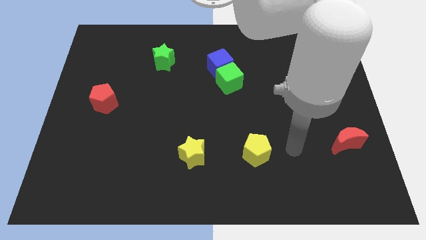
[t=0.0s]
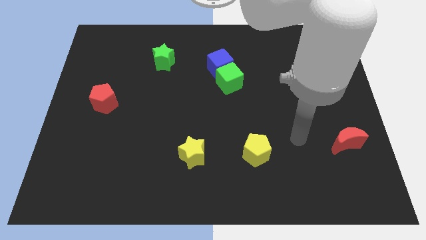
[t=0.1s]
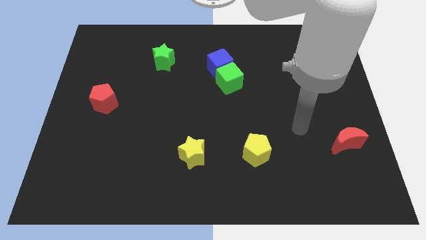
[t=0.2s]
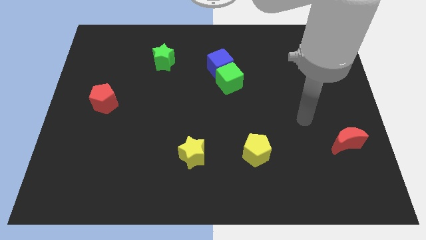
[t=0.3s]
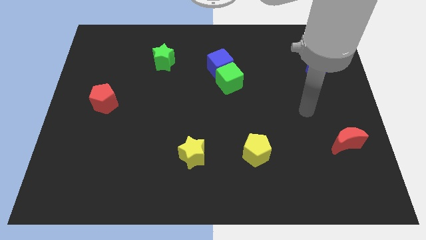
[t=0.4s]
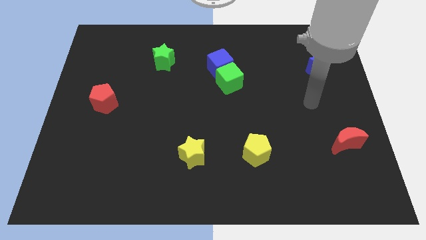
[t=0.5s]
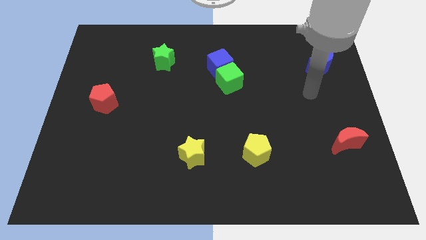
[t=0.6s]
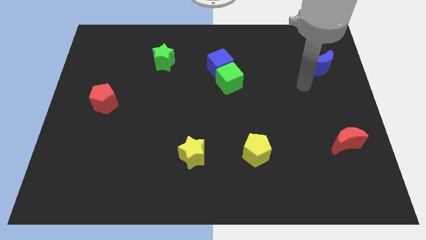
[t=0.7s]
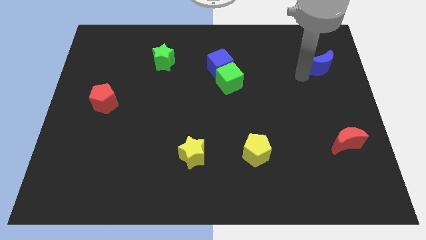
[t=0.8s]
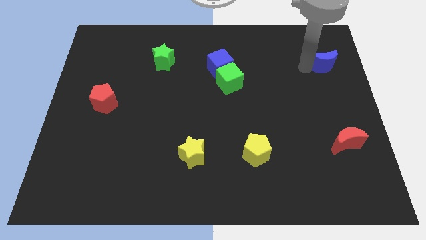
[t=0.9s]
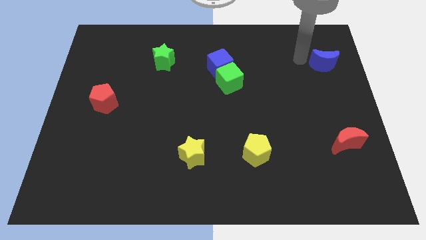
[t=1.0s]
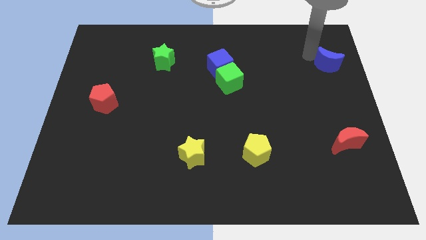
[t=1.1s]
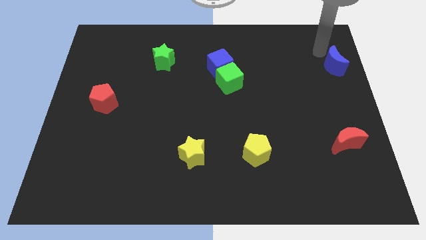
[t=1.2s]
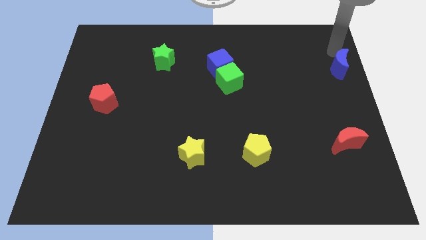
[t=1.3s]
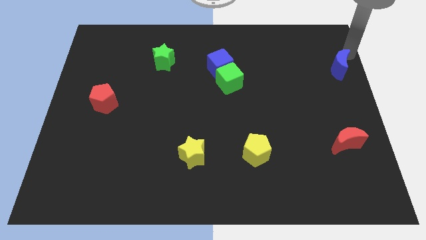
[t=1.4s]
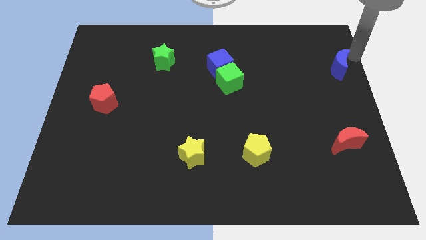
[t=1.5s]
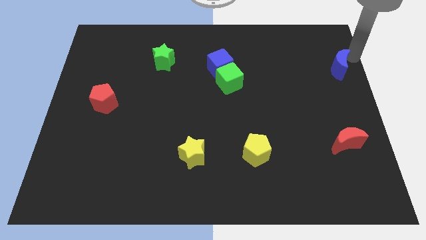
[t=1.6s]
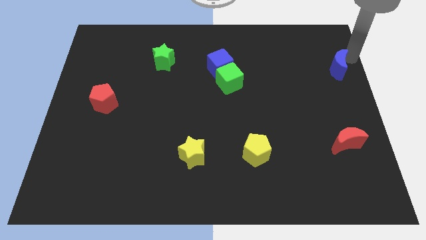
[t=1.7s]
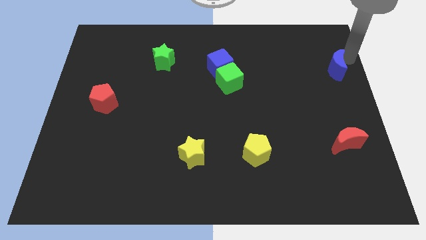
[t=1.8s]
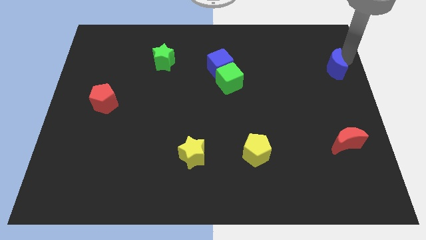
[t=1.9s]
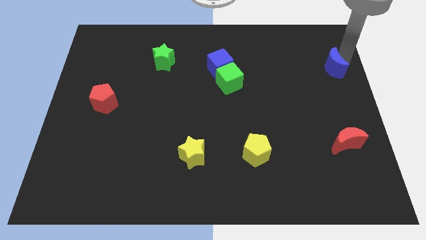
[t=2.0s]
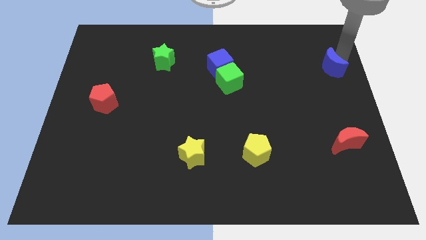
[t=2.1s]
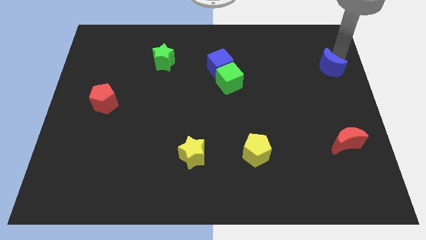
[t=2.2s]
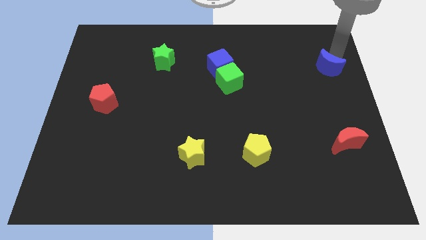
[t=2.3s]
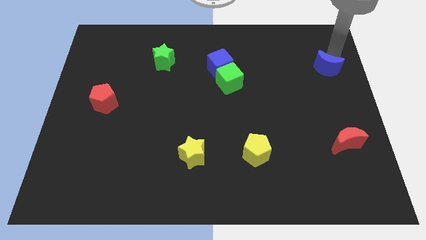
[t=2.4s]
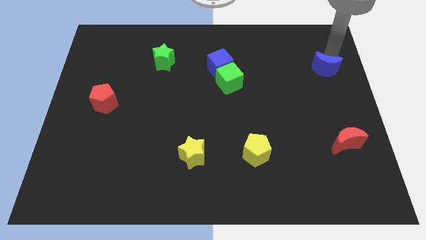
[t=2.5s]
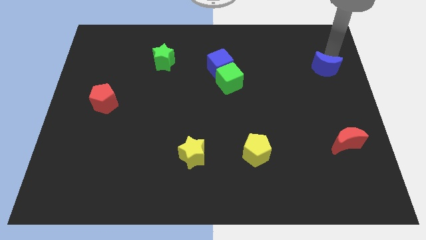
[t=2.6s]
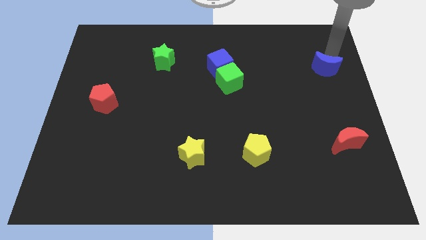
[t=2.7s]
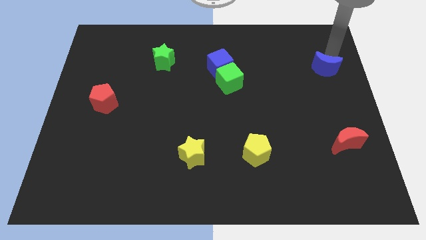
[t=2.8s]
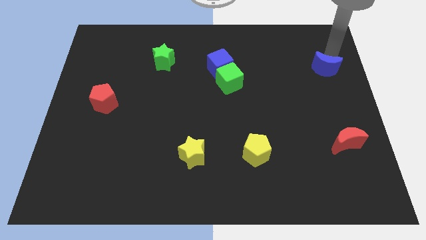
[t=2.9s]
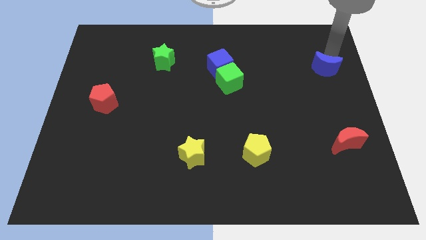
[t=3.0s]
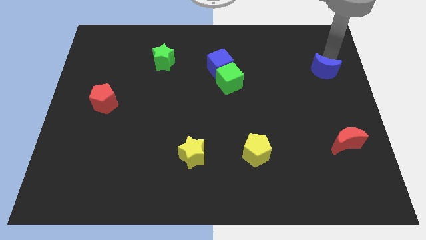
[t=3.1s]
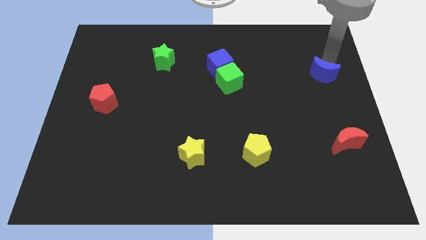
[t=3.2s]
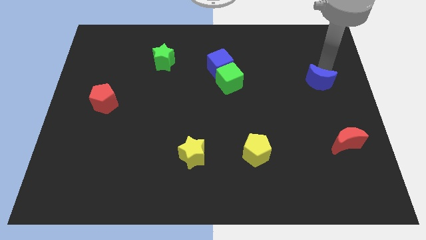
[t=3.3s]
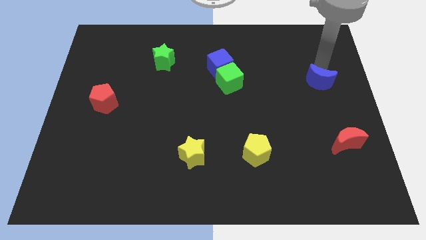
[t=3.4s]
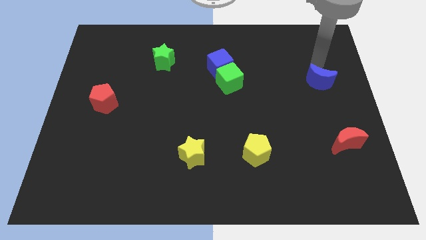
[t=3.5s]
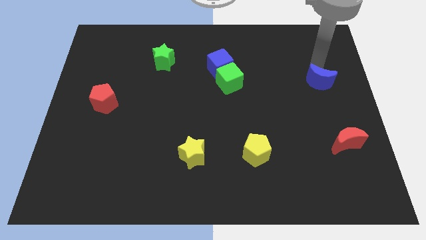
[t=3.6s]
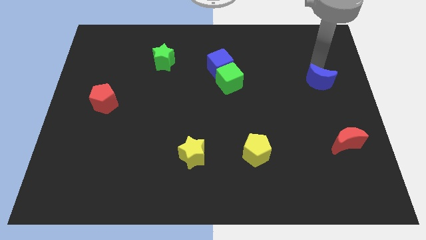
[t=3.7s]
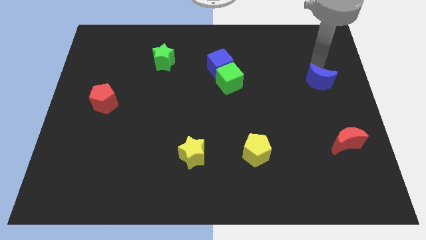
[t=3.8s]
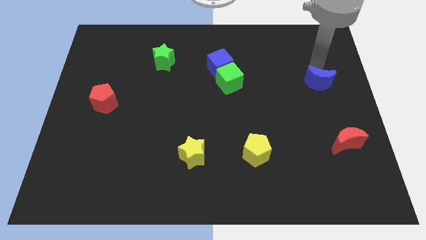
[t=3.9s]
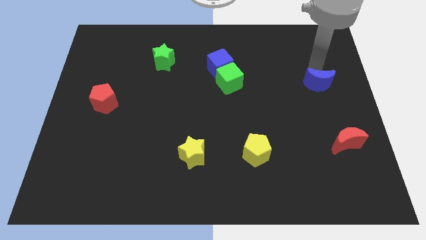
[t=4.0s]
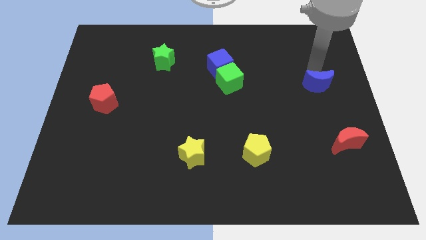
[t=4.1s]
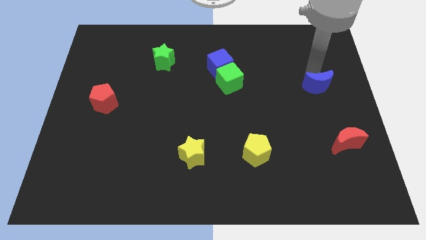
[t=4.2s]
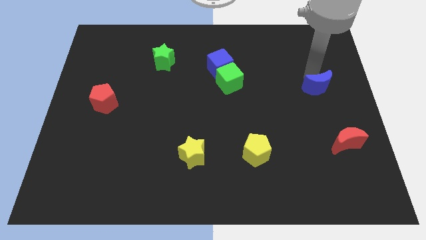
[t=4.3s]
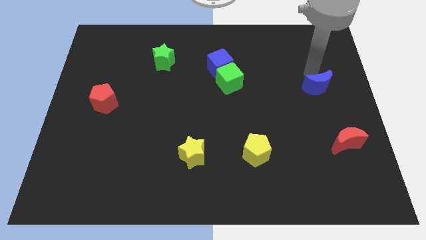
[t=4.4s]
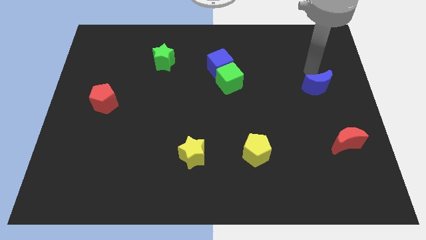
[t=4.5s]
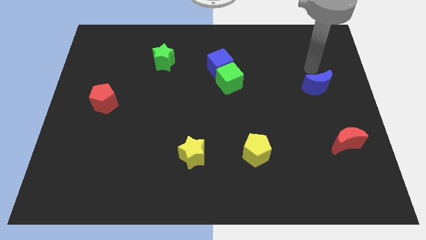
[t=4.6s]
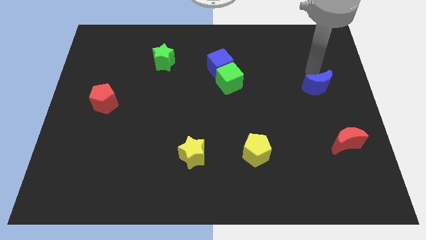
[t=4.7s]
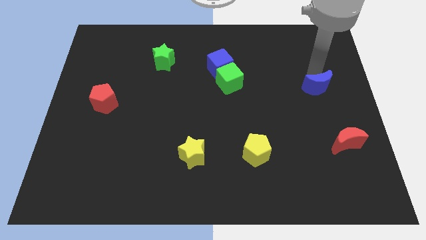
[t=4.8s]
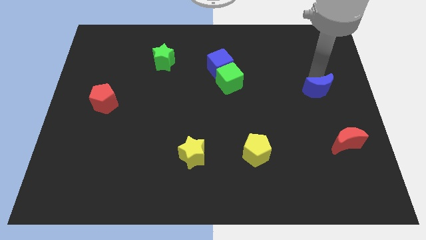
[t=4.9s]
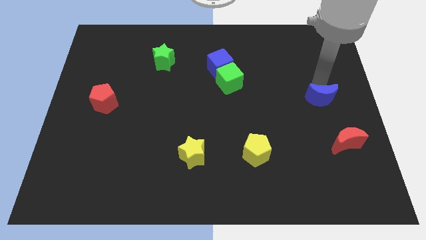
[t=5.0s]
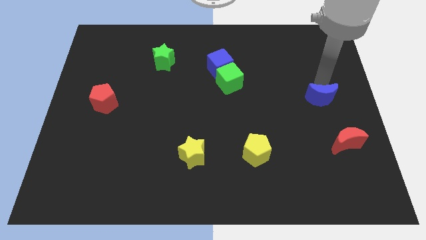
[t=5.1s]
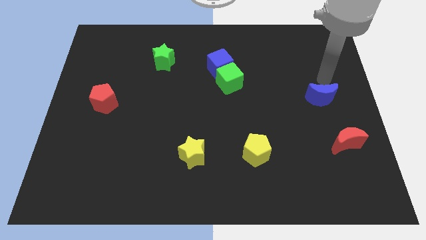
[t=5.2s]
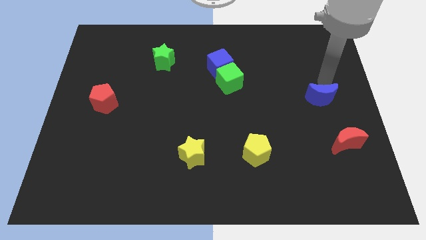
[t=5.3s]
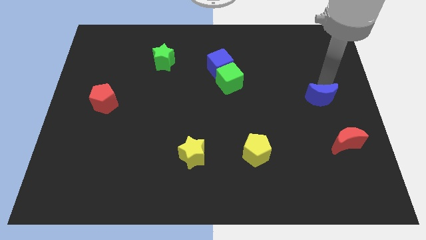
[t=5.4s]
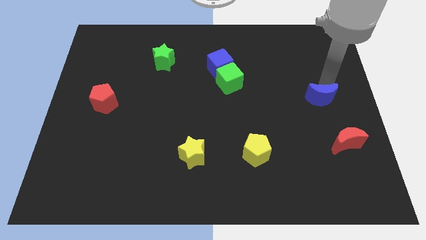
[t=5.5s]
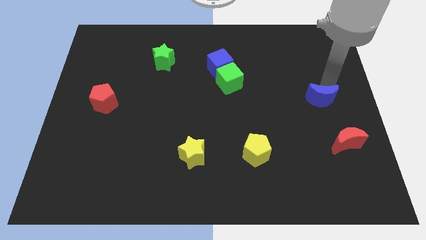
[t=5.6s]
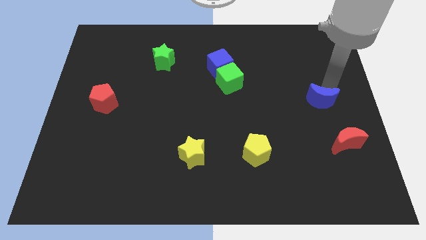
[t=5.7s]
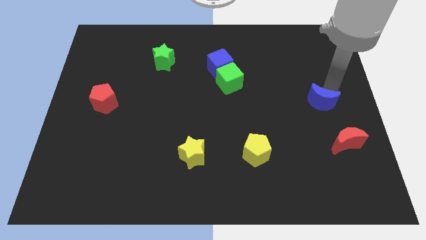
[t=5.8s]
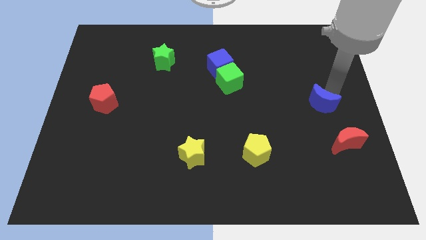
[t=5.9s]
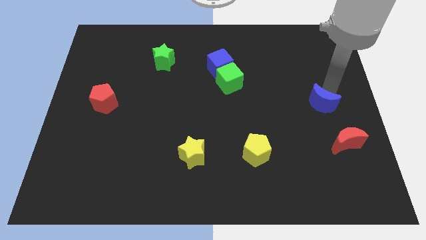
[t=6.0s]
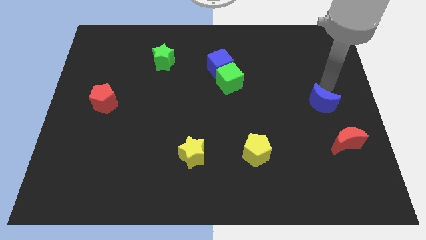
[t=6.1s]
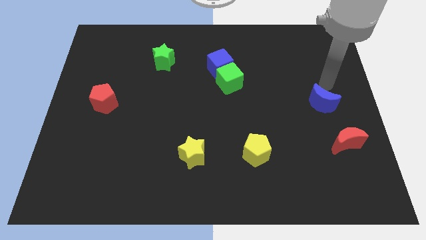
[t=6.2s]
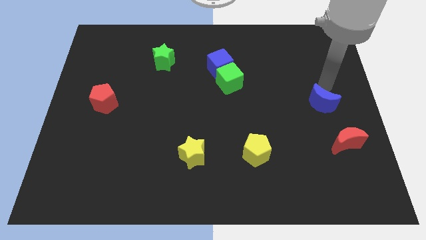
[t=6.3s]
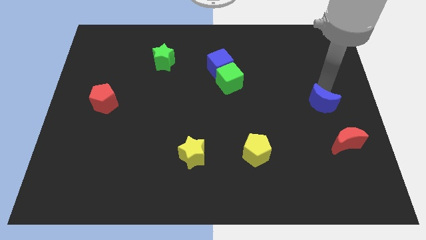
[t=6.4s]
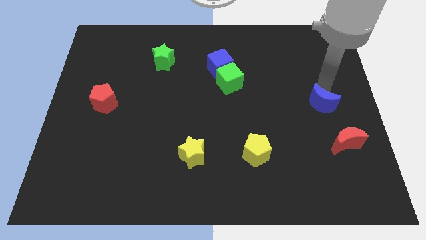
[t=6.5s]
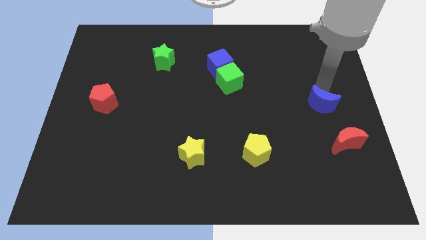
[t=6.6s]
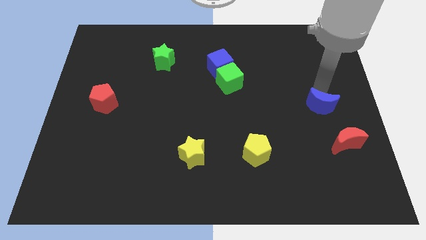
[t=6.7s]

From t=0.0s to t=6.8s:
push the blue moon to the top left side of the red moon
